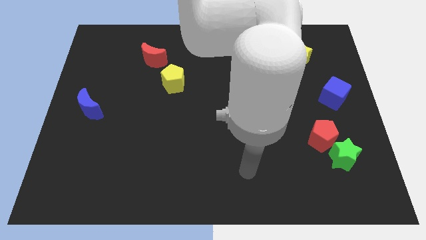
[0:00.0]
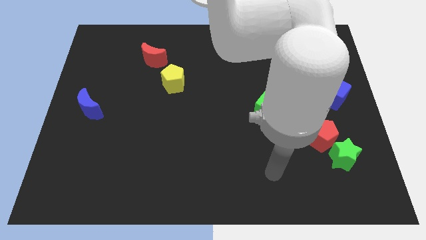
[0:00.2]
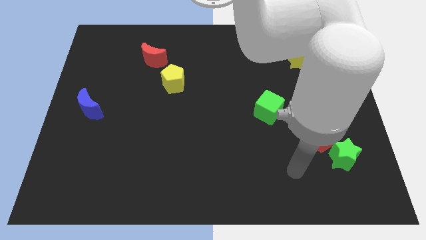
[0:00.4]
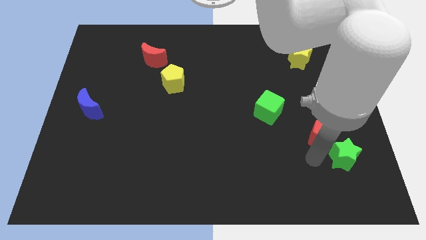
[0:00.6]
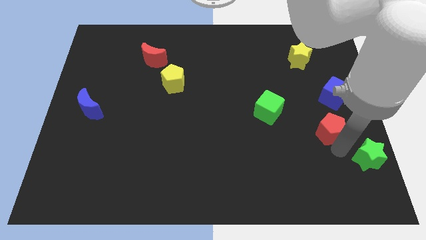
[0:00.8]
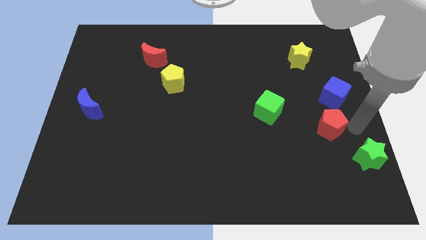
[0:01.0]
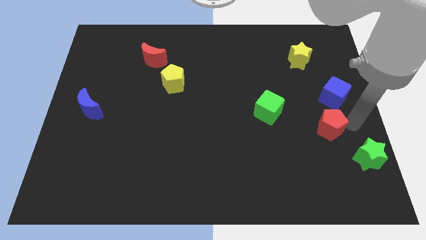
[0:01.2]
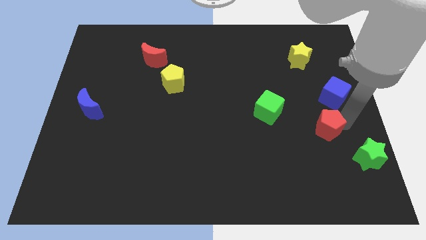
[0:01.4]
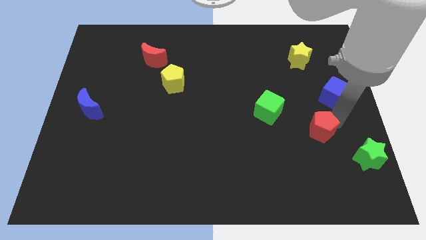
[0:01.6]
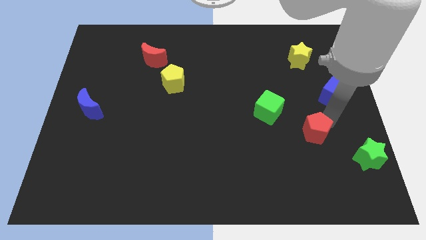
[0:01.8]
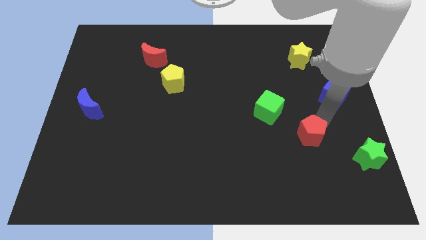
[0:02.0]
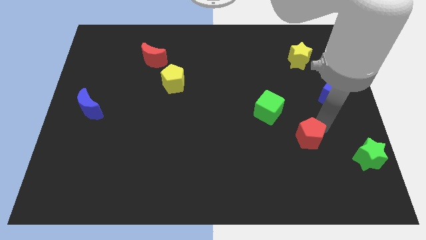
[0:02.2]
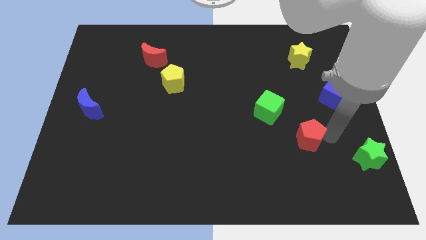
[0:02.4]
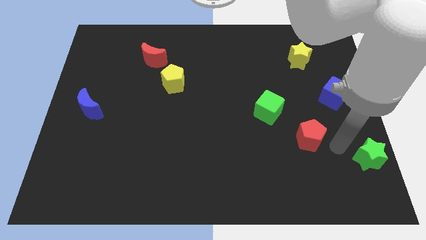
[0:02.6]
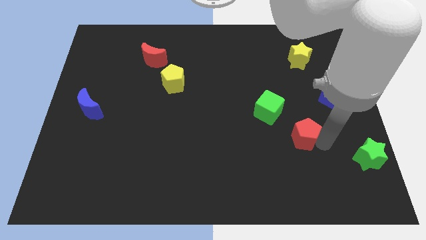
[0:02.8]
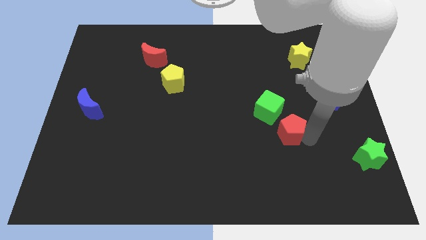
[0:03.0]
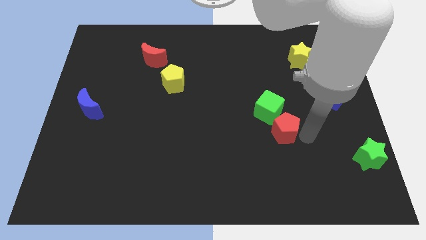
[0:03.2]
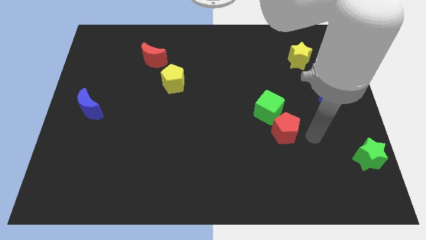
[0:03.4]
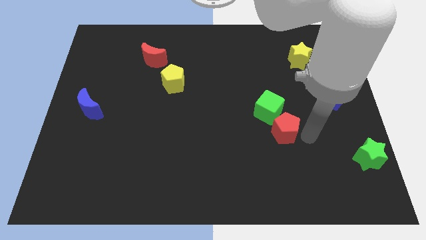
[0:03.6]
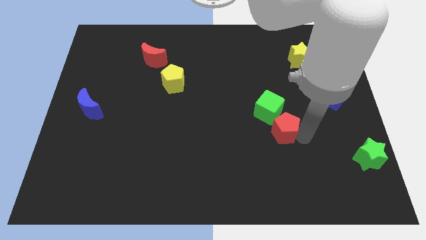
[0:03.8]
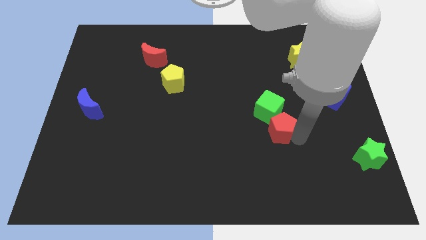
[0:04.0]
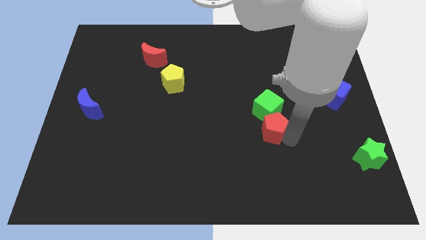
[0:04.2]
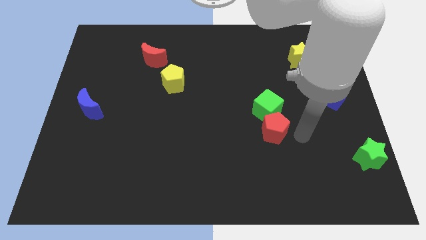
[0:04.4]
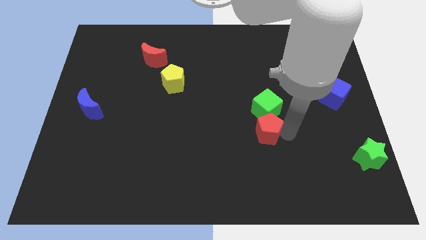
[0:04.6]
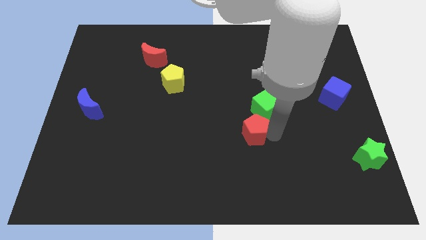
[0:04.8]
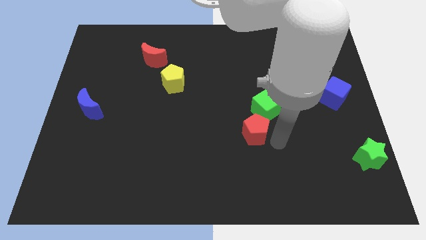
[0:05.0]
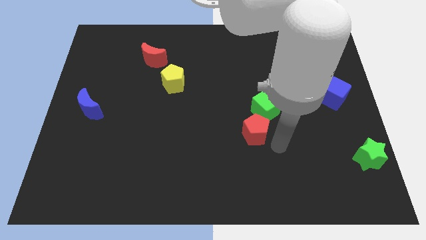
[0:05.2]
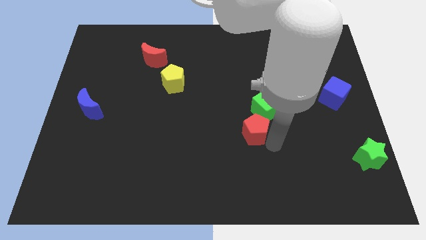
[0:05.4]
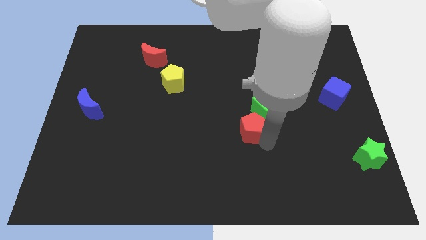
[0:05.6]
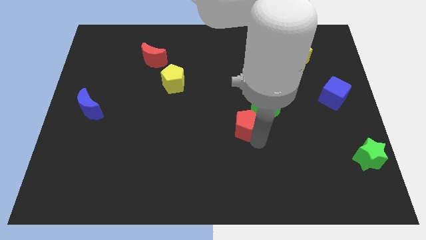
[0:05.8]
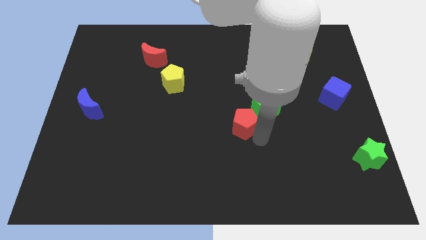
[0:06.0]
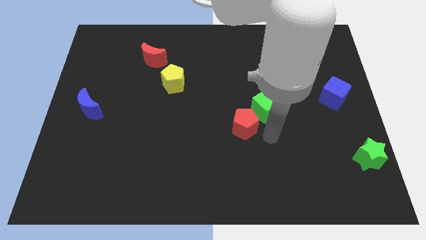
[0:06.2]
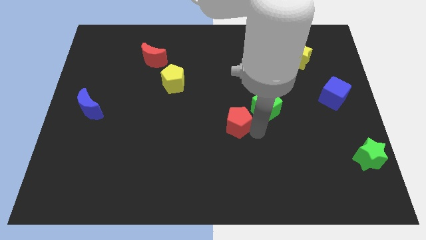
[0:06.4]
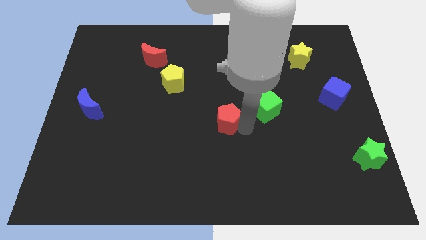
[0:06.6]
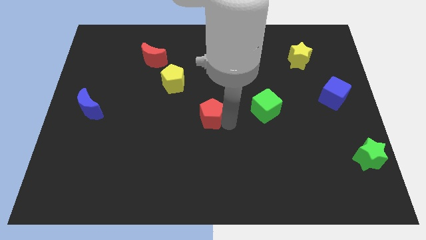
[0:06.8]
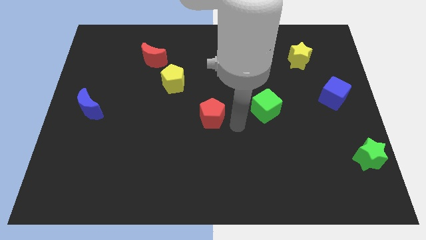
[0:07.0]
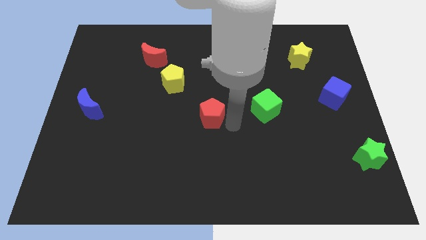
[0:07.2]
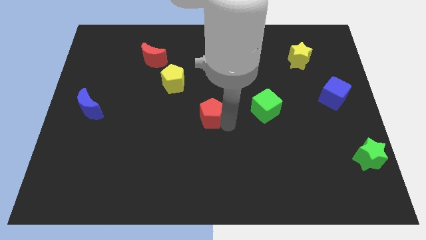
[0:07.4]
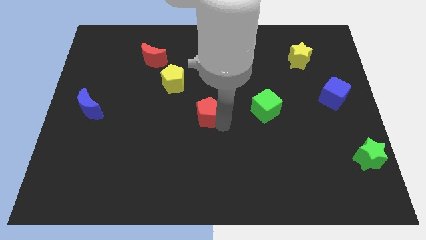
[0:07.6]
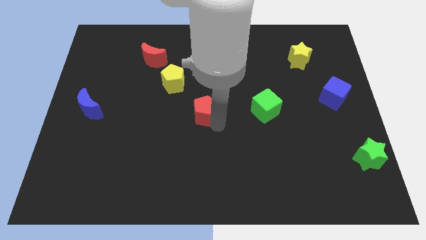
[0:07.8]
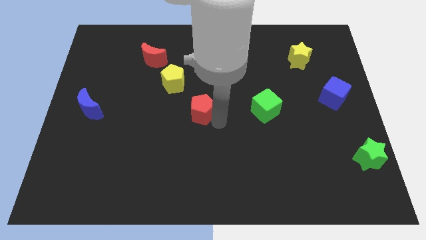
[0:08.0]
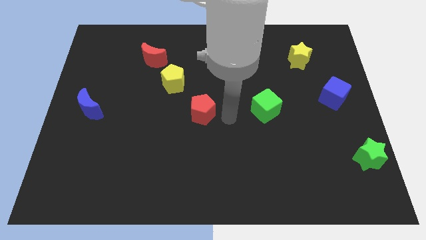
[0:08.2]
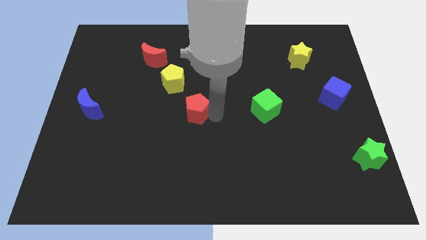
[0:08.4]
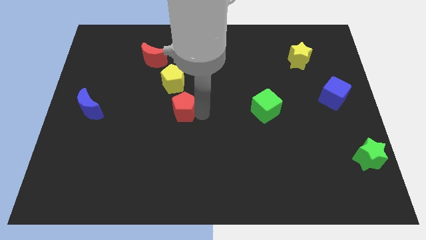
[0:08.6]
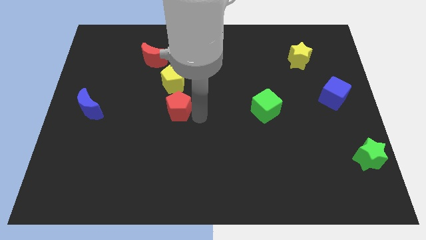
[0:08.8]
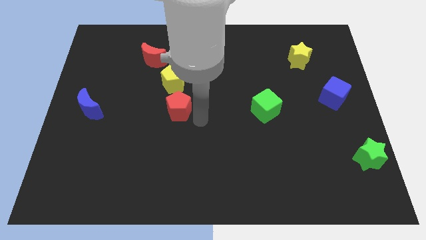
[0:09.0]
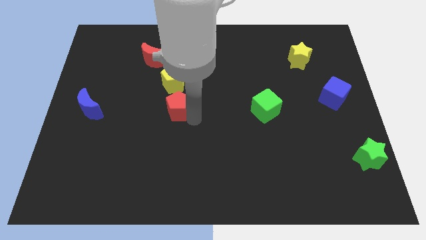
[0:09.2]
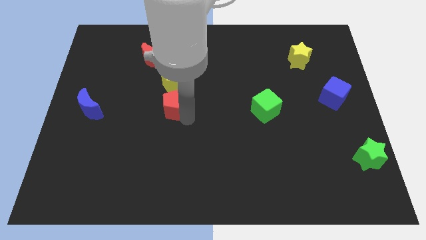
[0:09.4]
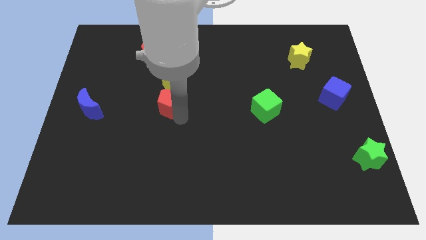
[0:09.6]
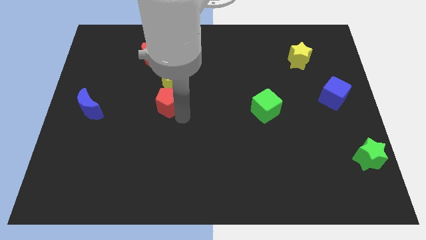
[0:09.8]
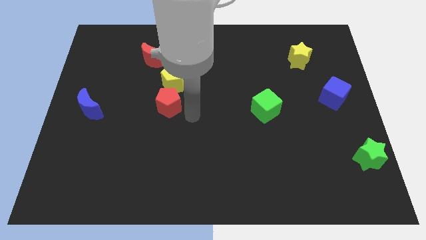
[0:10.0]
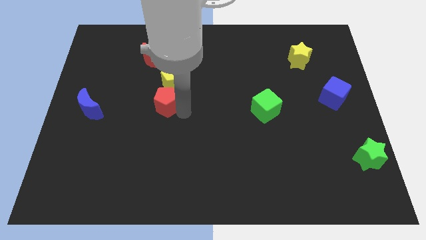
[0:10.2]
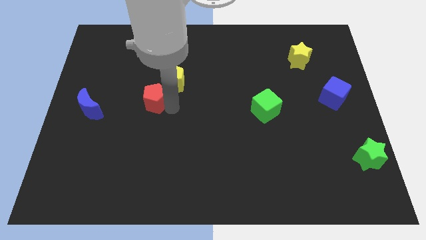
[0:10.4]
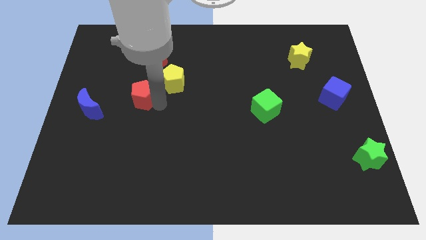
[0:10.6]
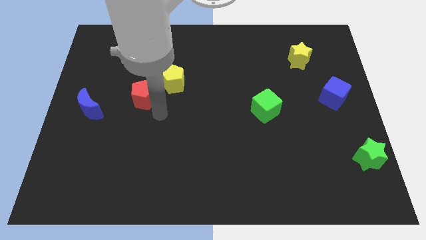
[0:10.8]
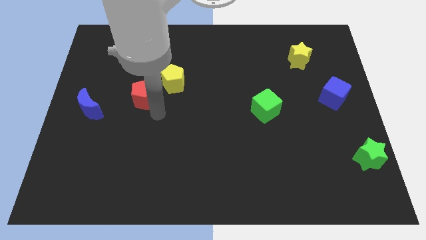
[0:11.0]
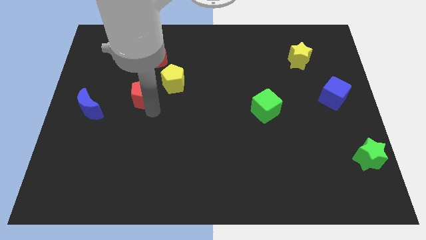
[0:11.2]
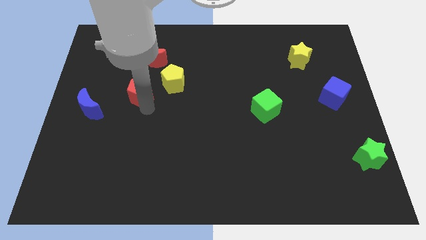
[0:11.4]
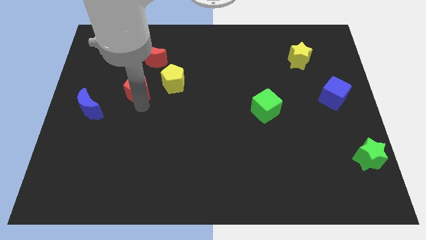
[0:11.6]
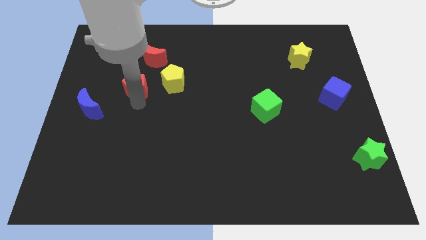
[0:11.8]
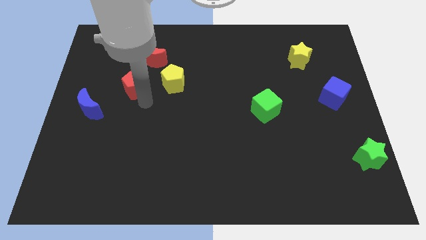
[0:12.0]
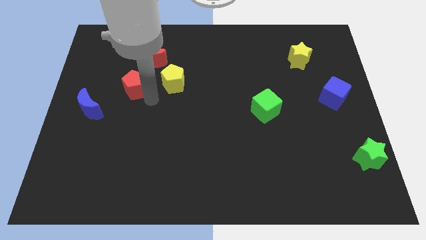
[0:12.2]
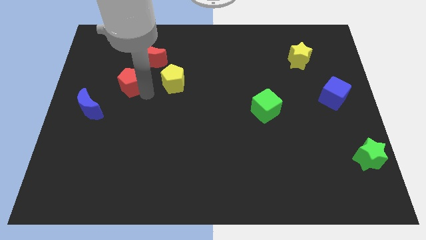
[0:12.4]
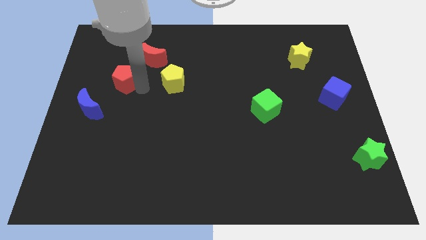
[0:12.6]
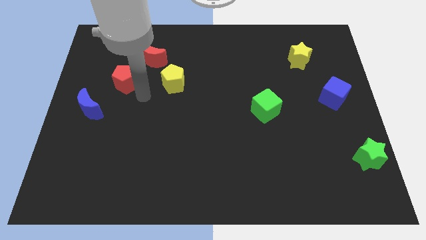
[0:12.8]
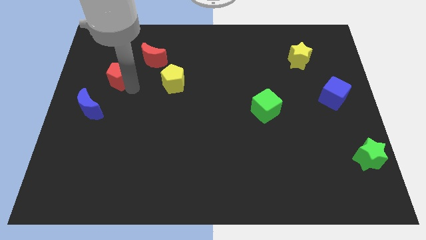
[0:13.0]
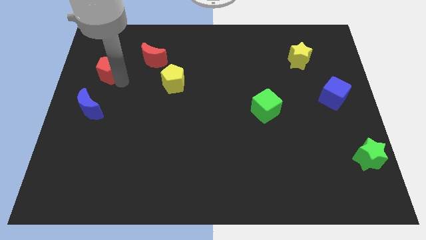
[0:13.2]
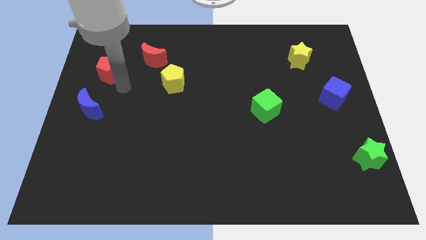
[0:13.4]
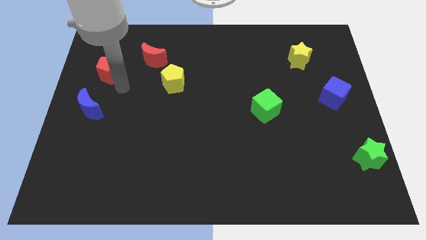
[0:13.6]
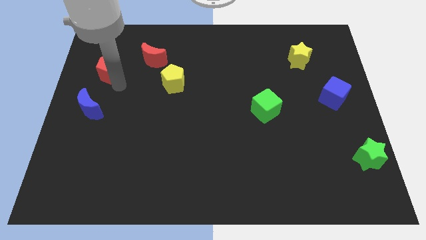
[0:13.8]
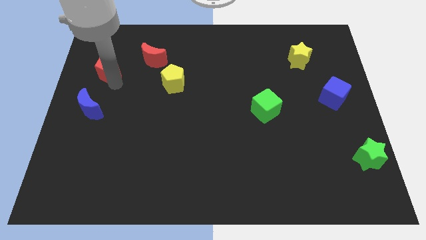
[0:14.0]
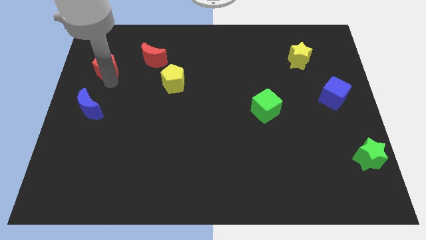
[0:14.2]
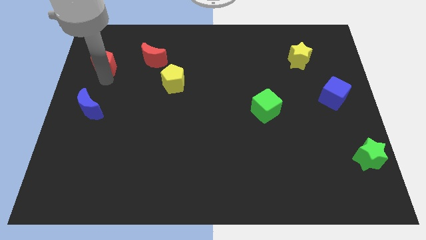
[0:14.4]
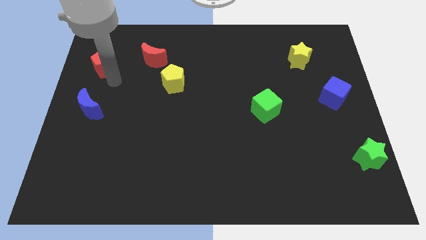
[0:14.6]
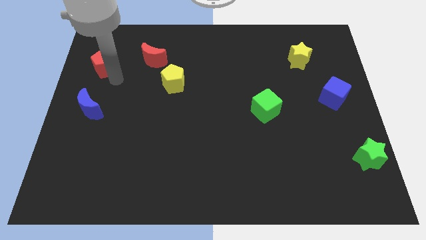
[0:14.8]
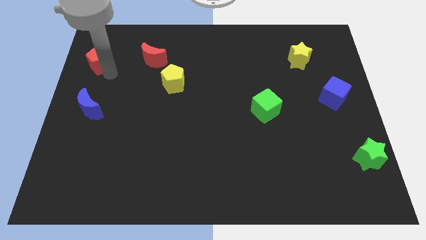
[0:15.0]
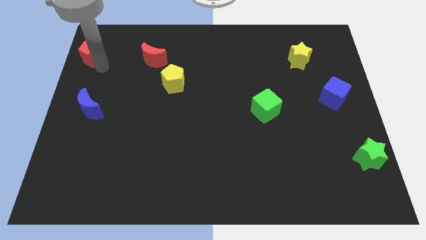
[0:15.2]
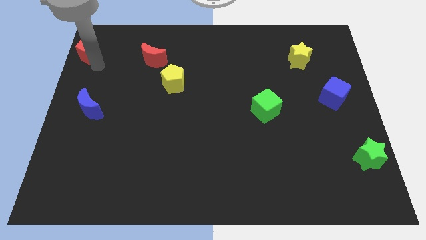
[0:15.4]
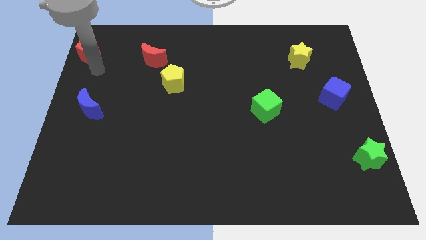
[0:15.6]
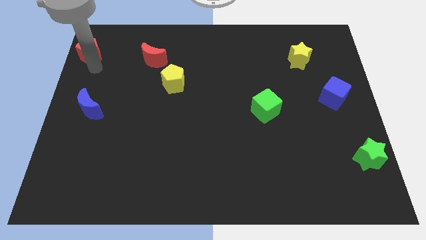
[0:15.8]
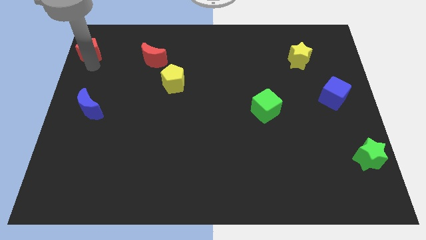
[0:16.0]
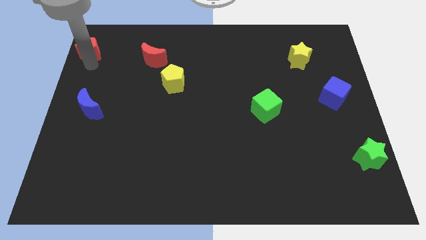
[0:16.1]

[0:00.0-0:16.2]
put the red pentagon to the top left
